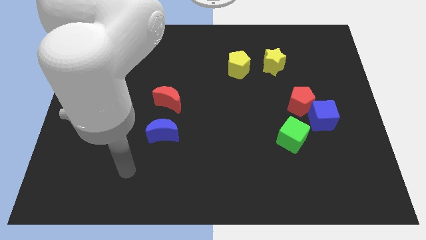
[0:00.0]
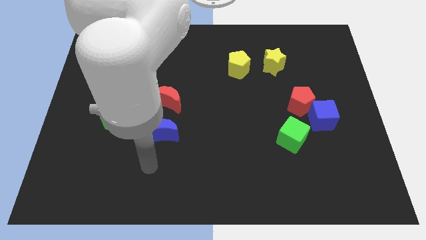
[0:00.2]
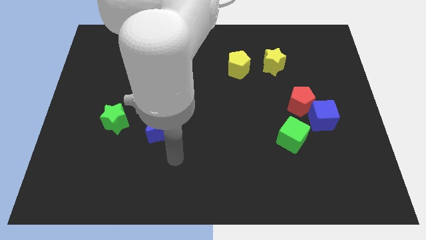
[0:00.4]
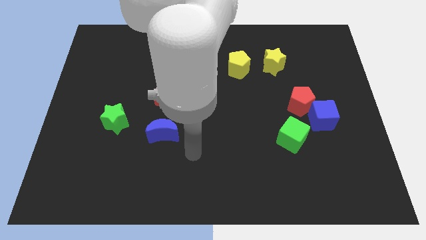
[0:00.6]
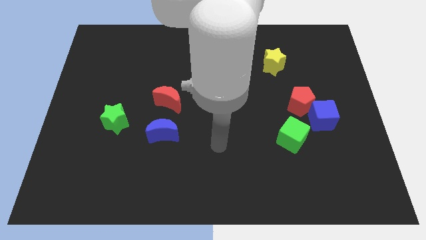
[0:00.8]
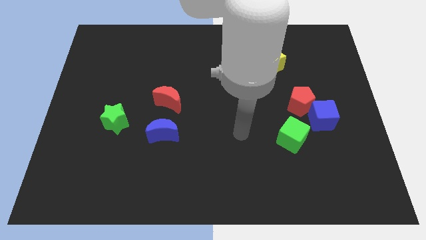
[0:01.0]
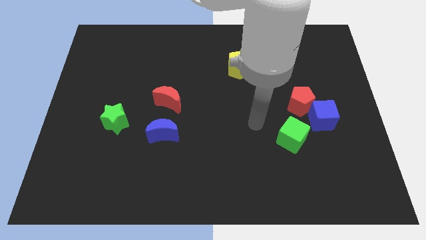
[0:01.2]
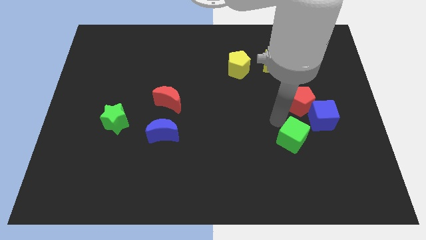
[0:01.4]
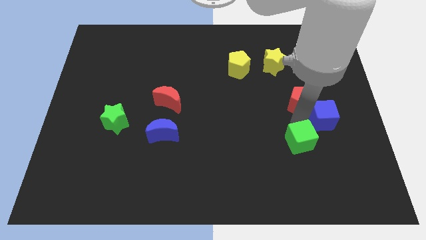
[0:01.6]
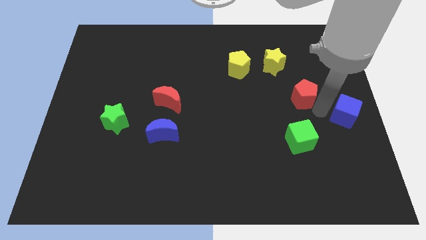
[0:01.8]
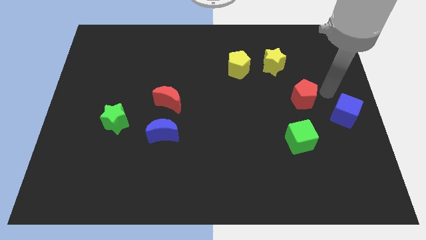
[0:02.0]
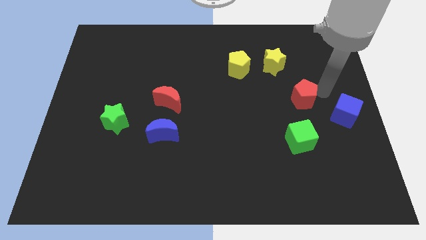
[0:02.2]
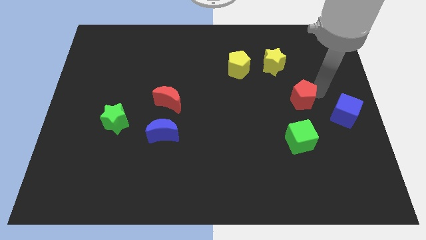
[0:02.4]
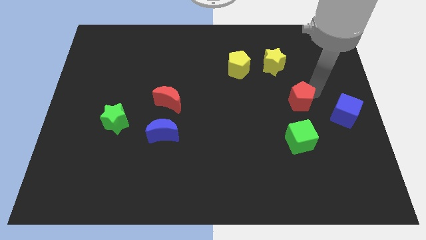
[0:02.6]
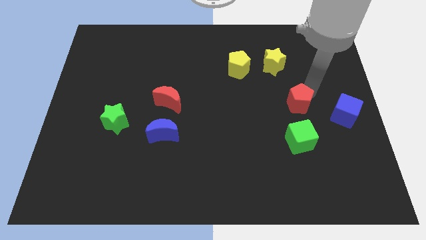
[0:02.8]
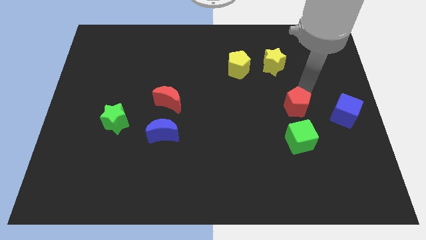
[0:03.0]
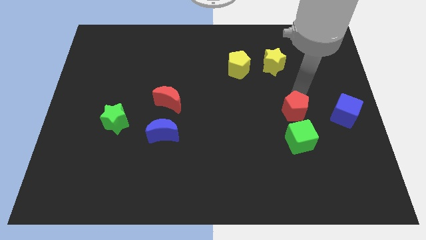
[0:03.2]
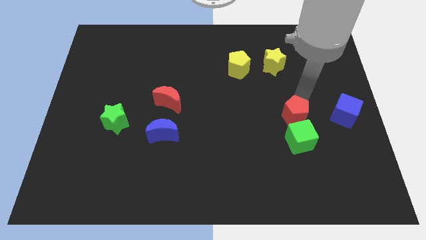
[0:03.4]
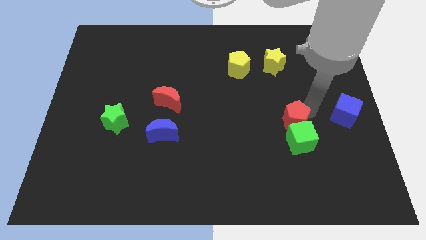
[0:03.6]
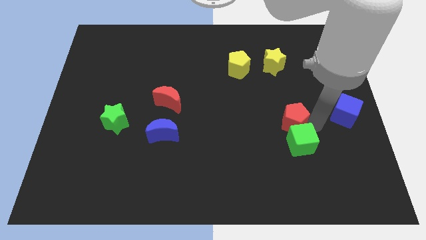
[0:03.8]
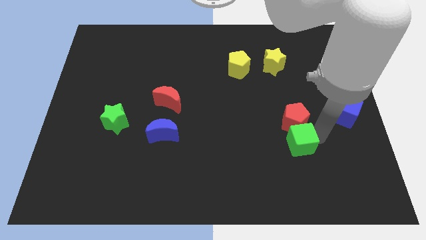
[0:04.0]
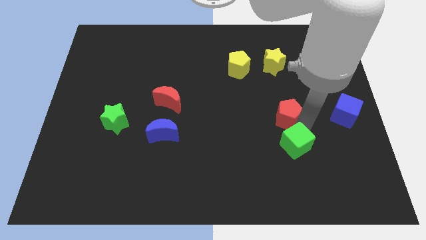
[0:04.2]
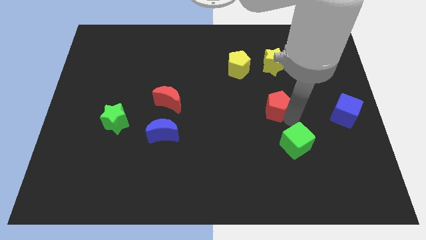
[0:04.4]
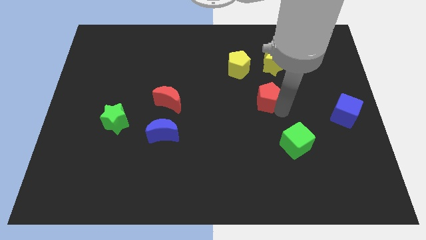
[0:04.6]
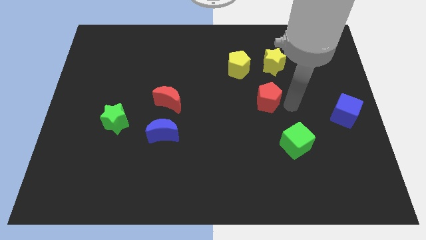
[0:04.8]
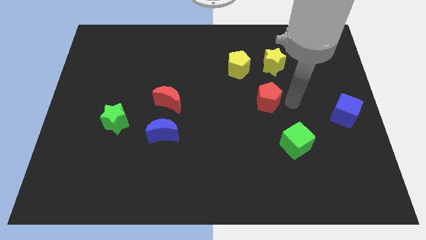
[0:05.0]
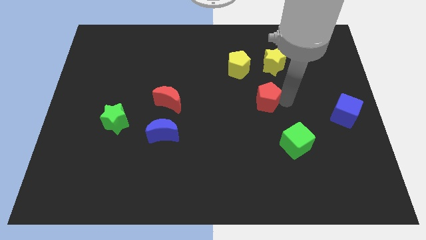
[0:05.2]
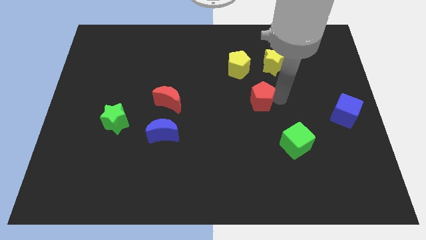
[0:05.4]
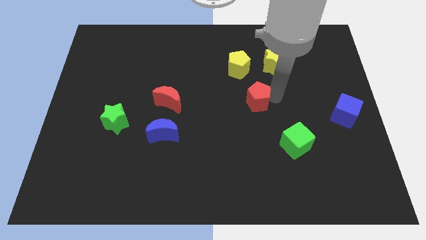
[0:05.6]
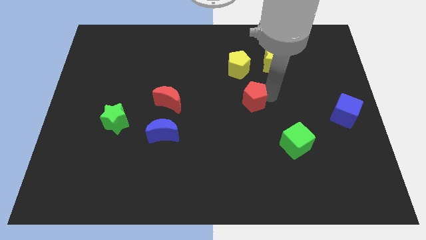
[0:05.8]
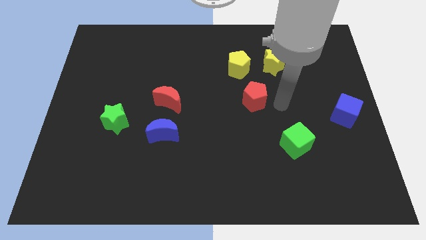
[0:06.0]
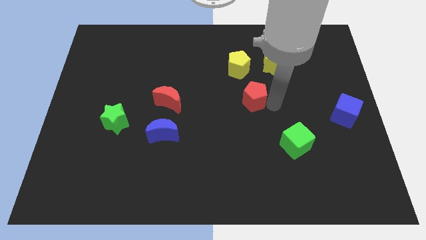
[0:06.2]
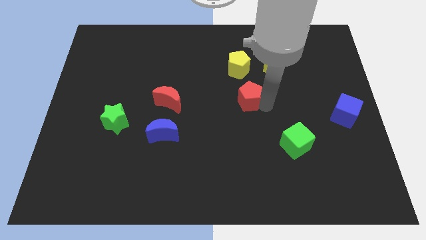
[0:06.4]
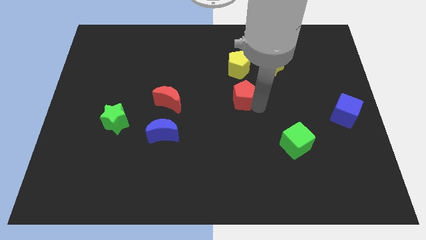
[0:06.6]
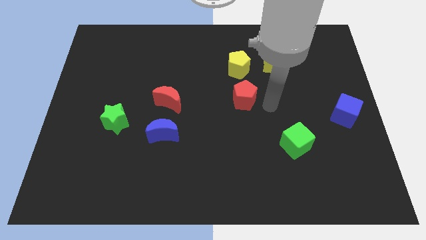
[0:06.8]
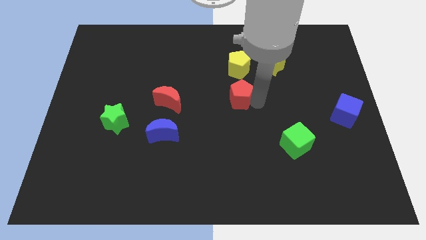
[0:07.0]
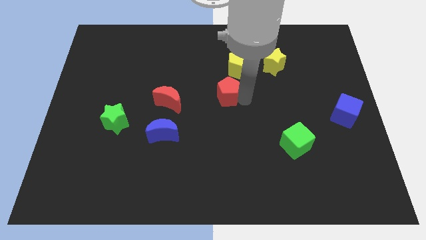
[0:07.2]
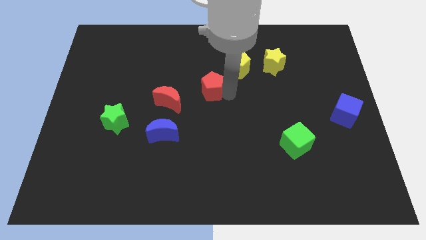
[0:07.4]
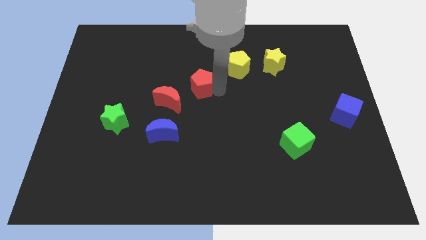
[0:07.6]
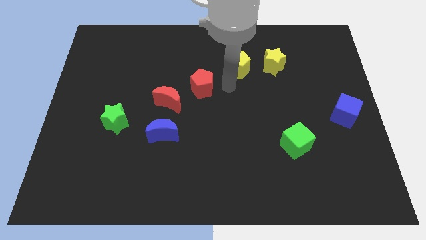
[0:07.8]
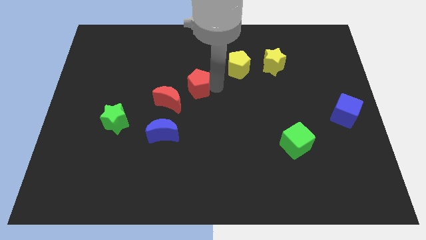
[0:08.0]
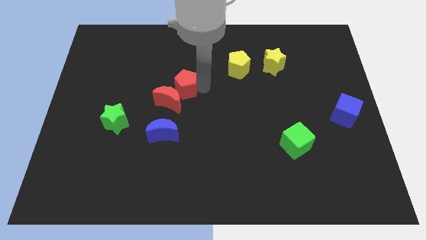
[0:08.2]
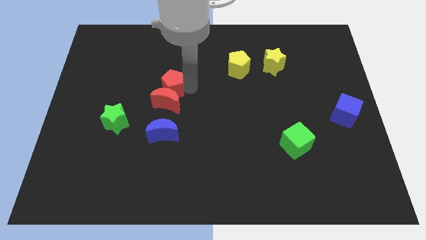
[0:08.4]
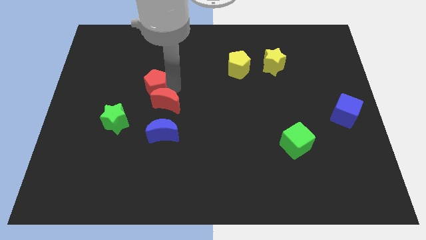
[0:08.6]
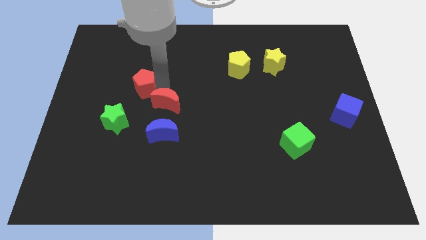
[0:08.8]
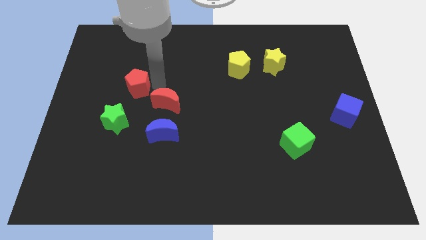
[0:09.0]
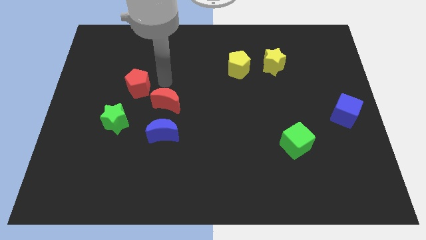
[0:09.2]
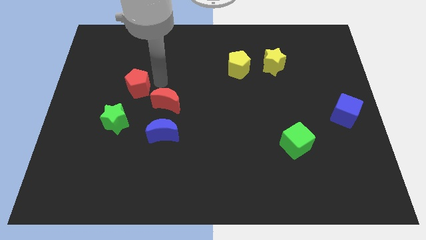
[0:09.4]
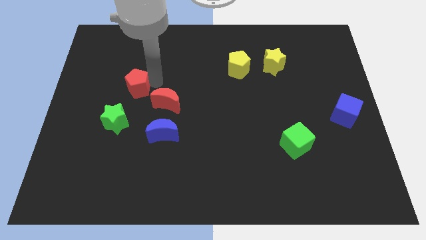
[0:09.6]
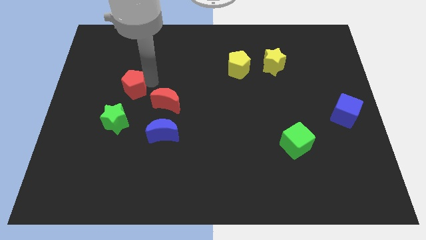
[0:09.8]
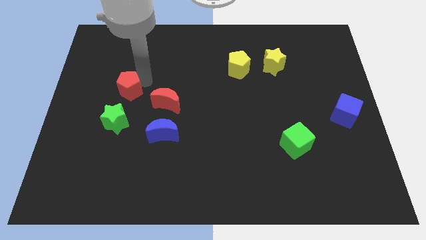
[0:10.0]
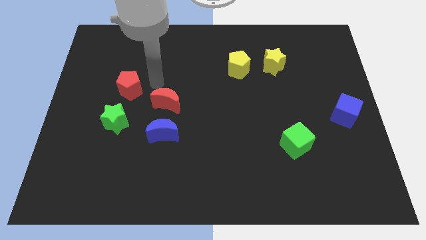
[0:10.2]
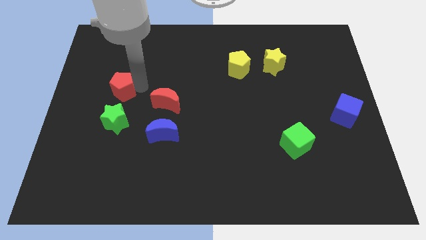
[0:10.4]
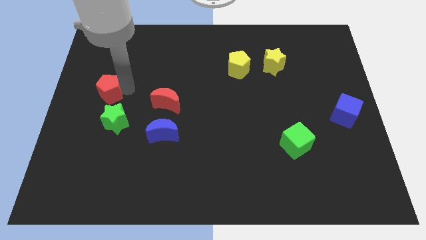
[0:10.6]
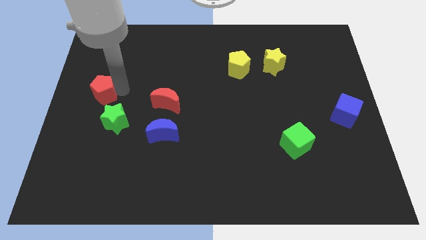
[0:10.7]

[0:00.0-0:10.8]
slide the red pentagon to the left side

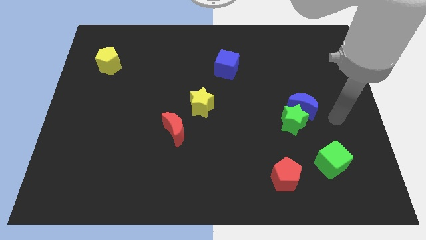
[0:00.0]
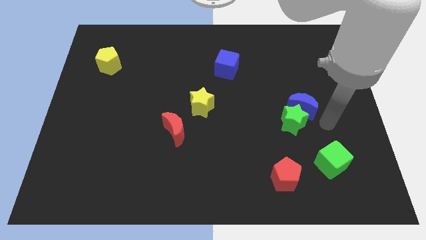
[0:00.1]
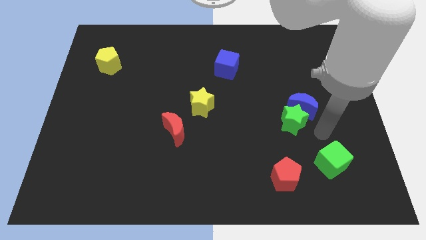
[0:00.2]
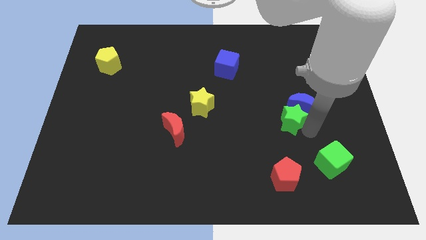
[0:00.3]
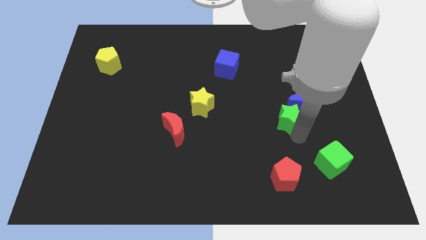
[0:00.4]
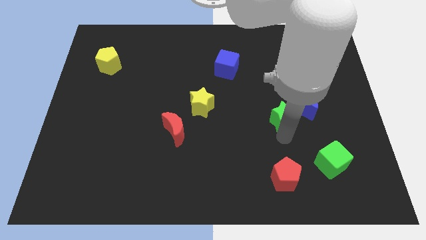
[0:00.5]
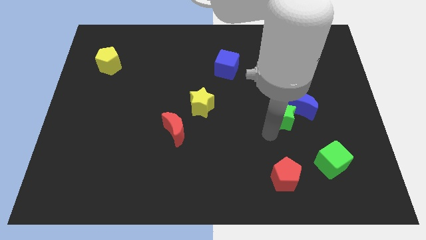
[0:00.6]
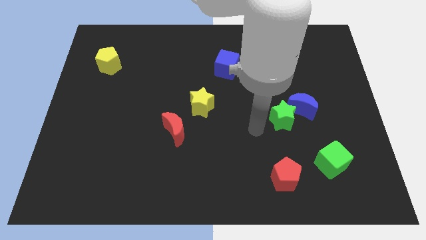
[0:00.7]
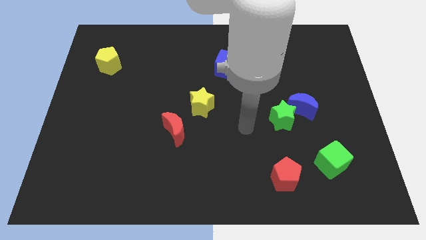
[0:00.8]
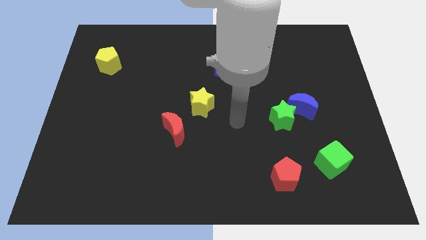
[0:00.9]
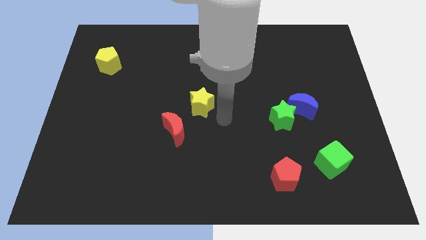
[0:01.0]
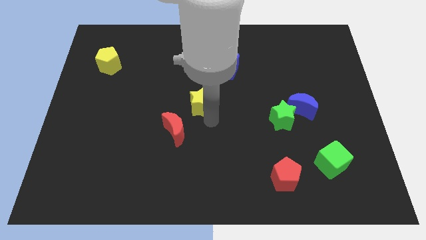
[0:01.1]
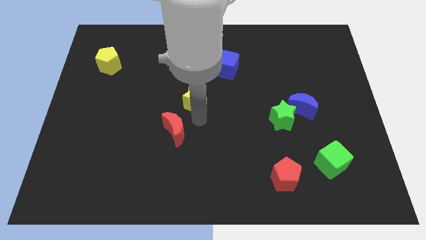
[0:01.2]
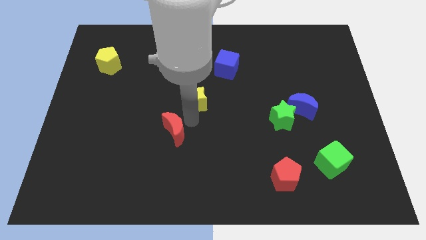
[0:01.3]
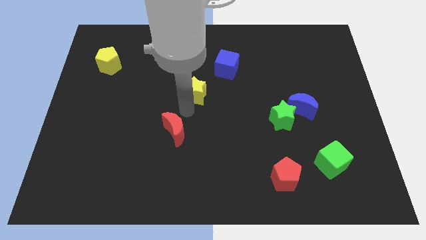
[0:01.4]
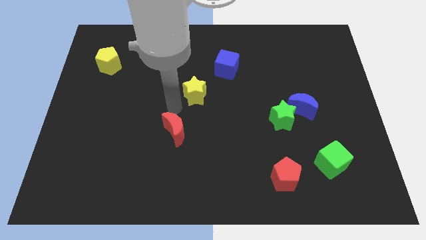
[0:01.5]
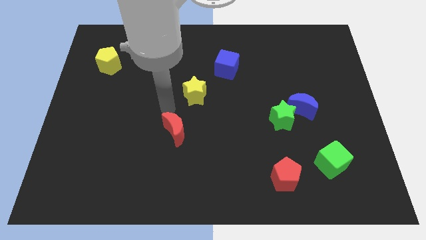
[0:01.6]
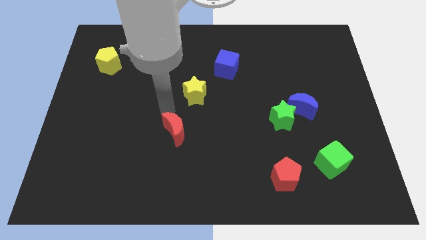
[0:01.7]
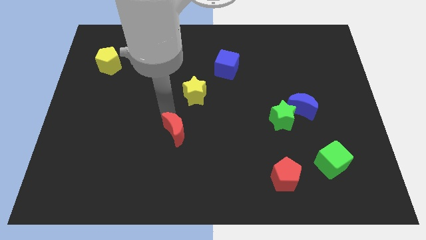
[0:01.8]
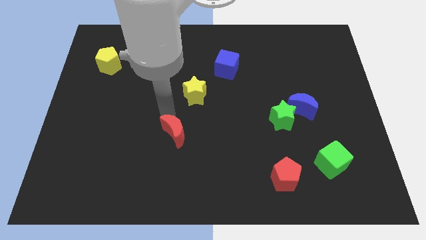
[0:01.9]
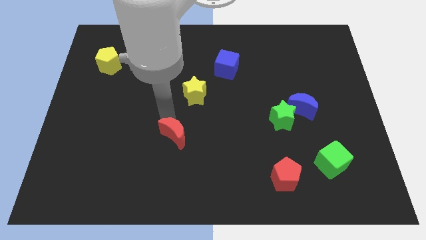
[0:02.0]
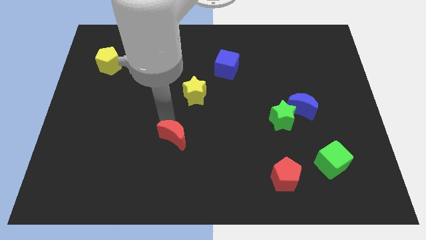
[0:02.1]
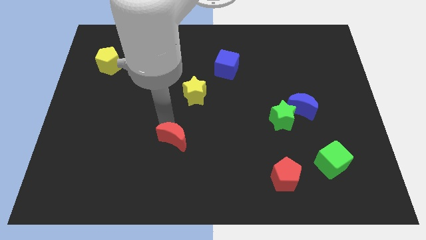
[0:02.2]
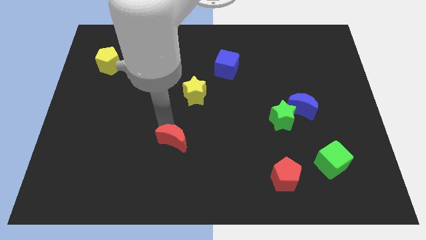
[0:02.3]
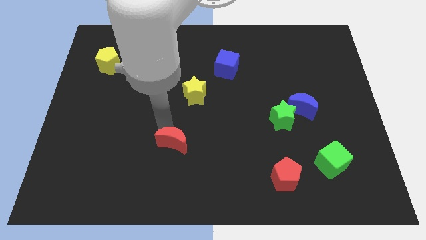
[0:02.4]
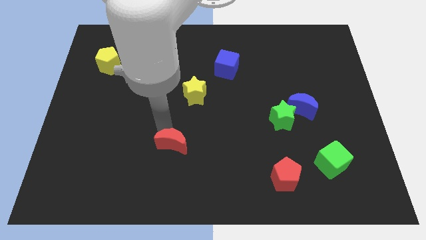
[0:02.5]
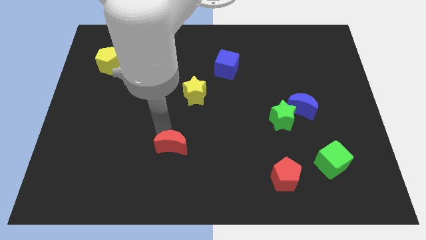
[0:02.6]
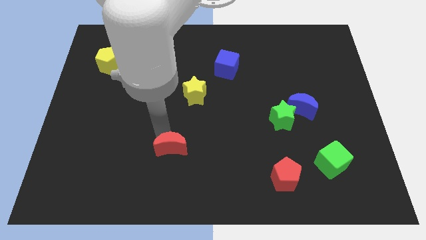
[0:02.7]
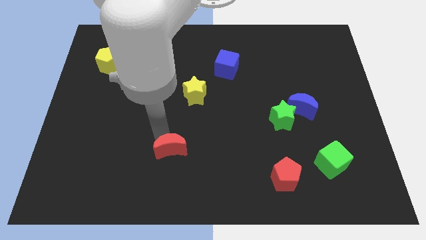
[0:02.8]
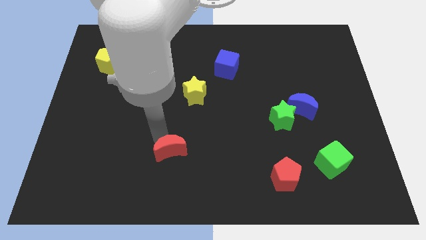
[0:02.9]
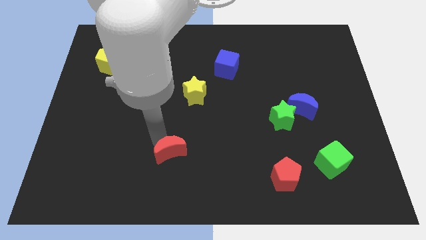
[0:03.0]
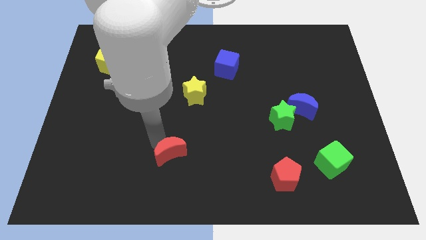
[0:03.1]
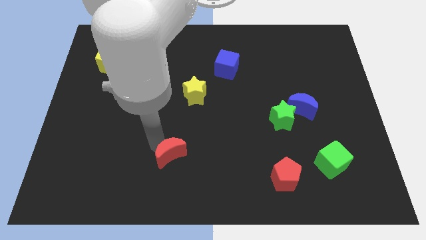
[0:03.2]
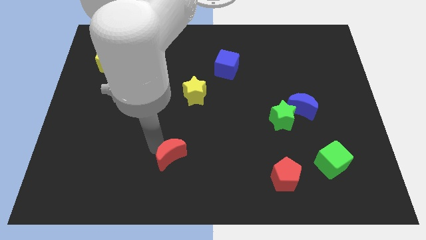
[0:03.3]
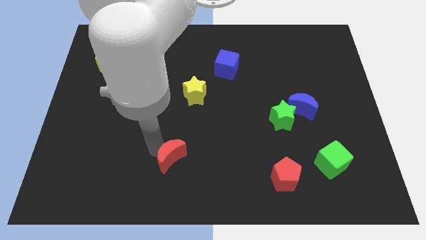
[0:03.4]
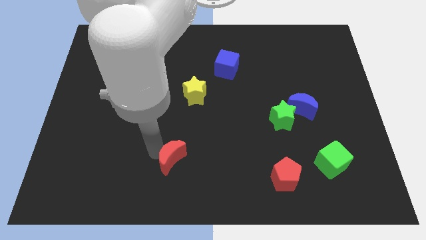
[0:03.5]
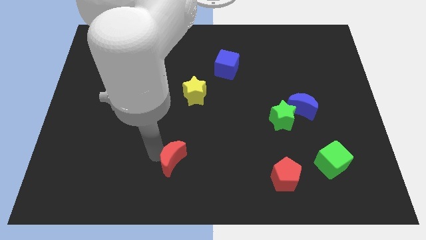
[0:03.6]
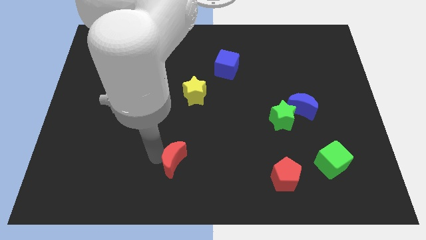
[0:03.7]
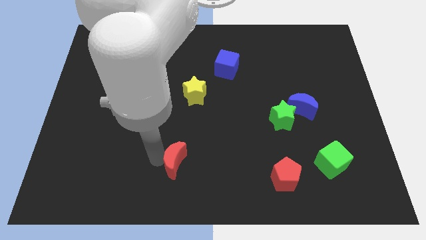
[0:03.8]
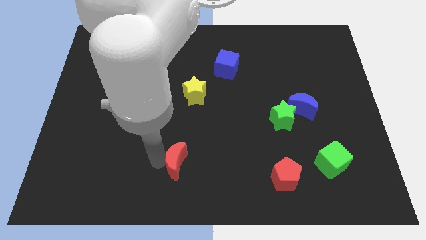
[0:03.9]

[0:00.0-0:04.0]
put the red moon to the bottom
